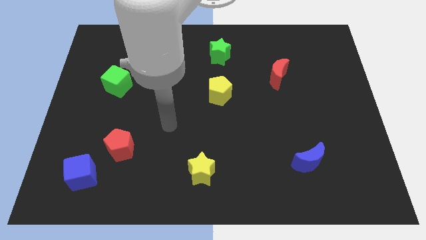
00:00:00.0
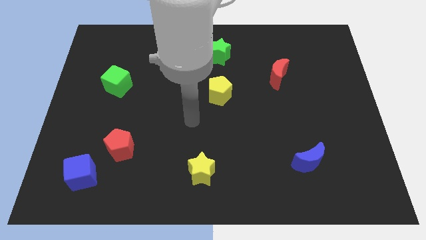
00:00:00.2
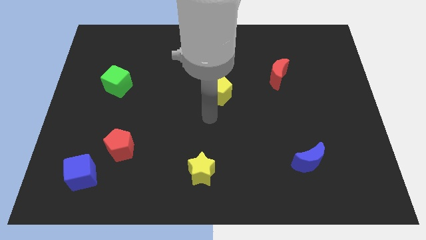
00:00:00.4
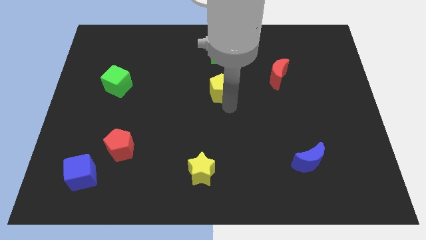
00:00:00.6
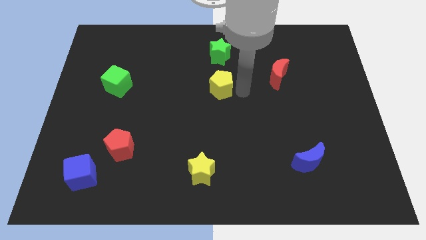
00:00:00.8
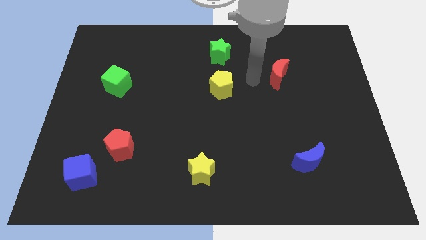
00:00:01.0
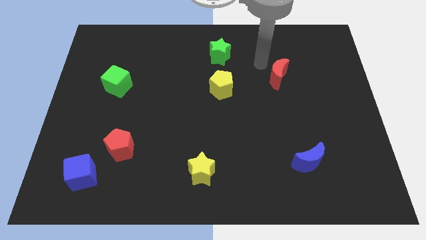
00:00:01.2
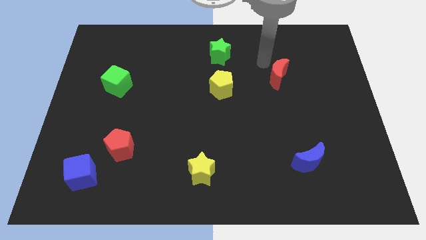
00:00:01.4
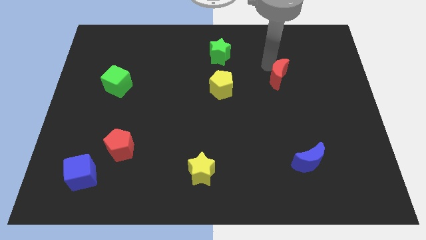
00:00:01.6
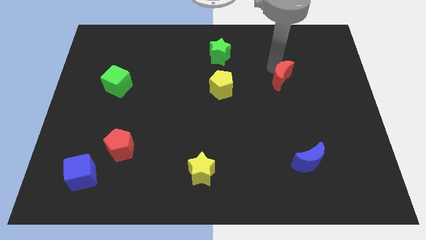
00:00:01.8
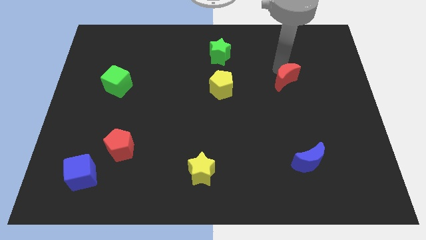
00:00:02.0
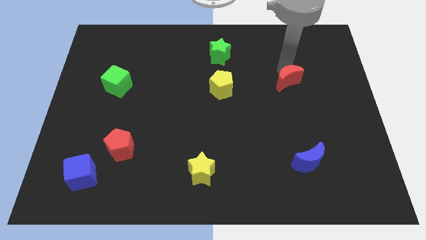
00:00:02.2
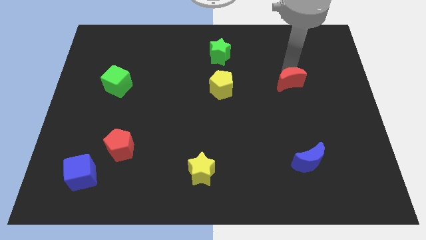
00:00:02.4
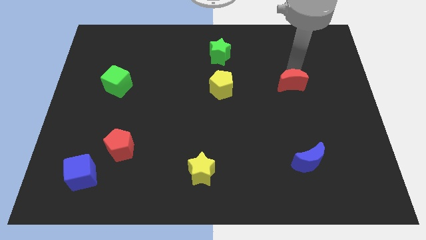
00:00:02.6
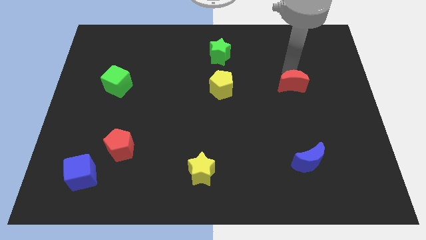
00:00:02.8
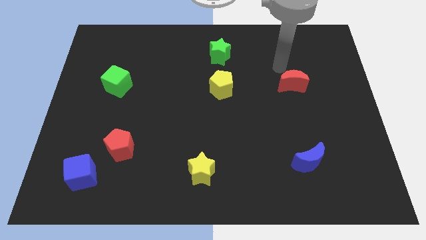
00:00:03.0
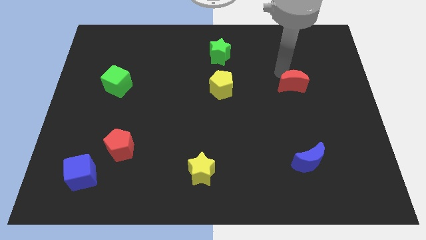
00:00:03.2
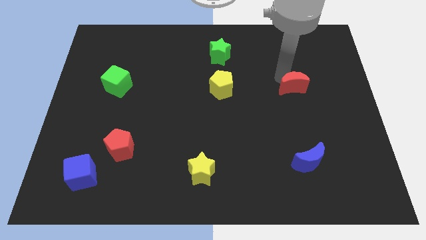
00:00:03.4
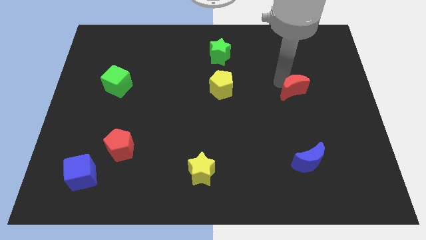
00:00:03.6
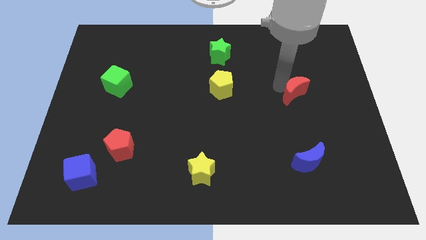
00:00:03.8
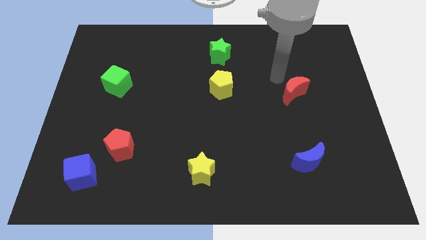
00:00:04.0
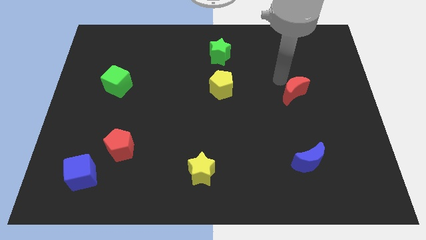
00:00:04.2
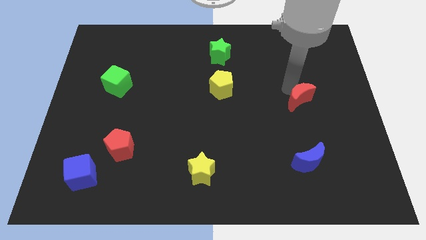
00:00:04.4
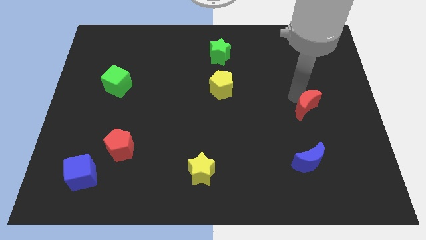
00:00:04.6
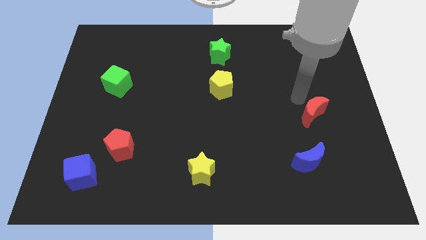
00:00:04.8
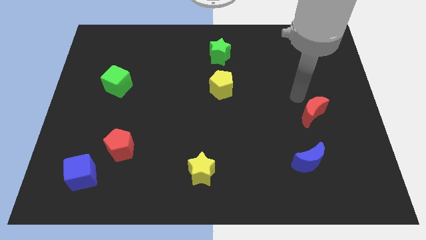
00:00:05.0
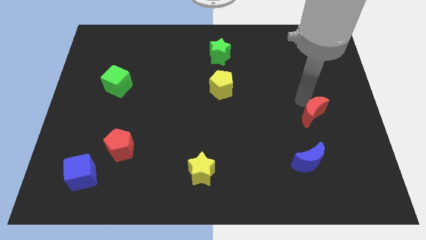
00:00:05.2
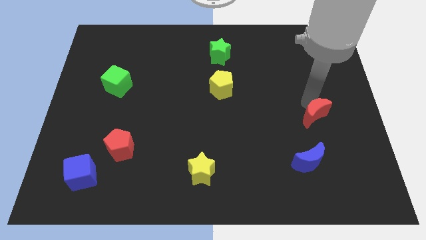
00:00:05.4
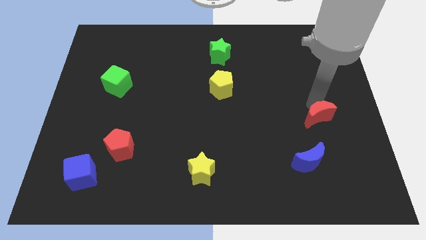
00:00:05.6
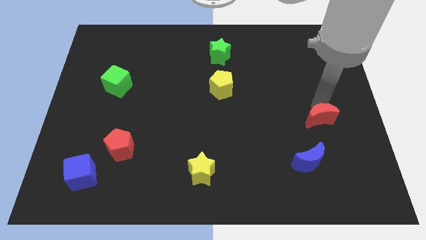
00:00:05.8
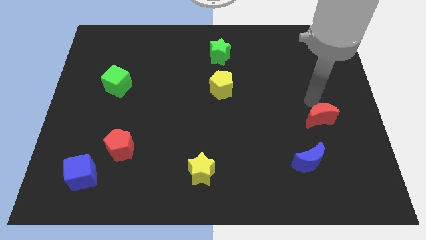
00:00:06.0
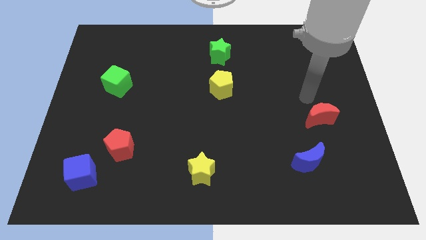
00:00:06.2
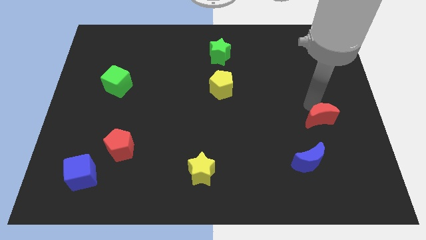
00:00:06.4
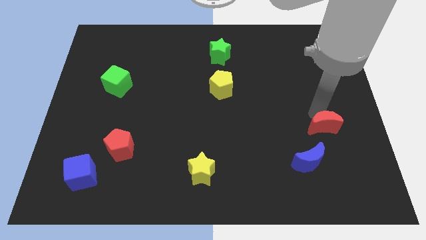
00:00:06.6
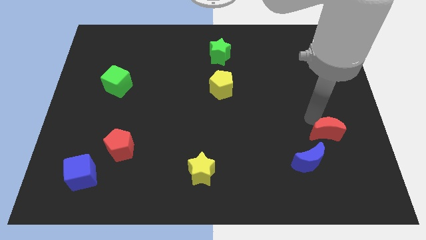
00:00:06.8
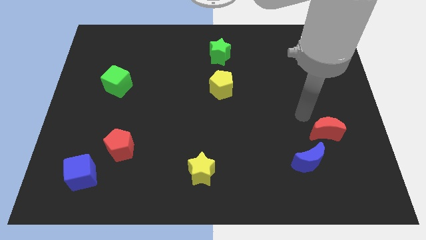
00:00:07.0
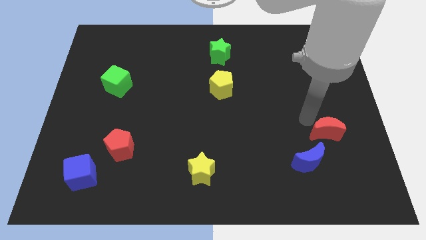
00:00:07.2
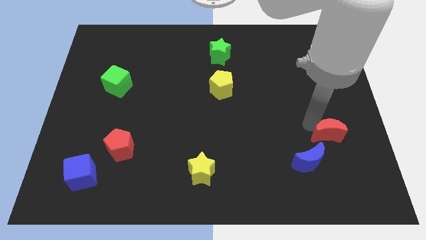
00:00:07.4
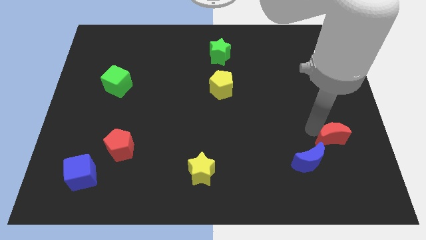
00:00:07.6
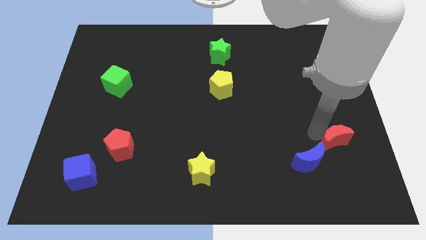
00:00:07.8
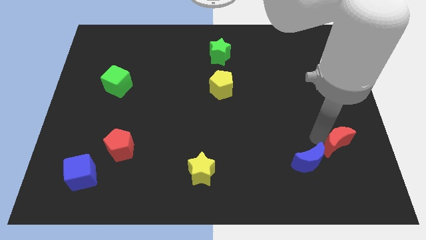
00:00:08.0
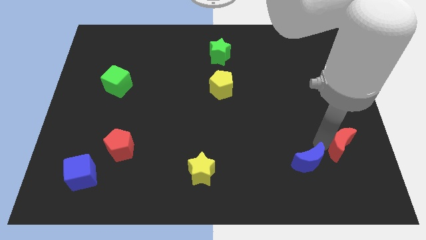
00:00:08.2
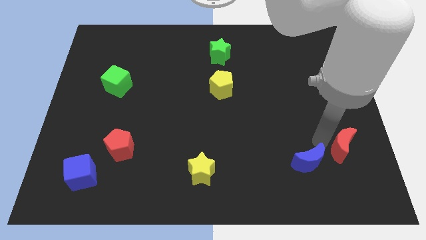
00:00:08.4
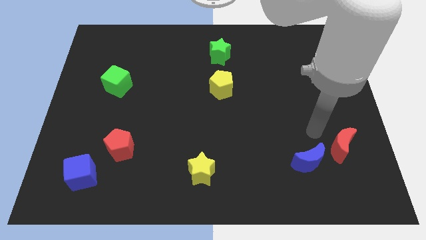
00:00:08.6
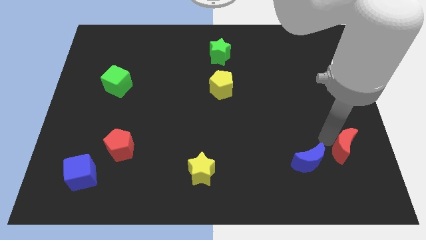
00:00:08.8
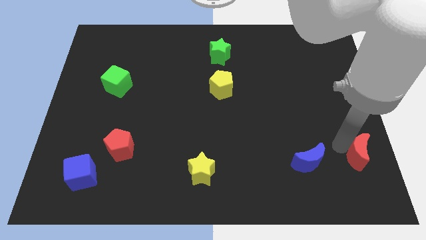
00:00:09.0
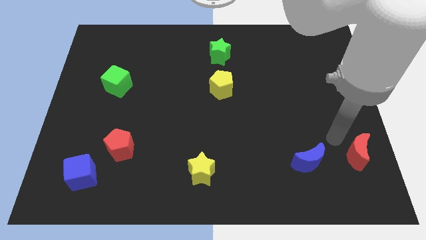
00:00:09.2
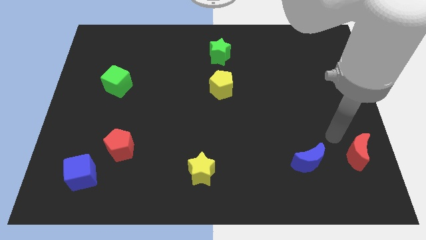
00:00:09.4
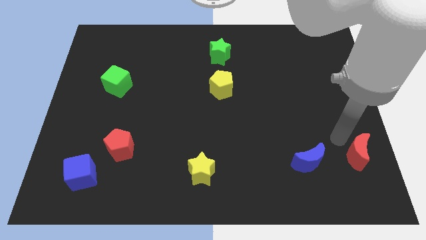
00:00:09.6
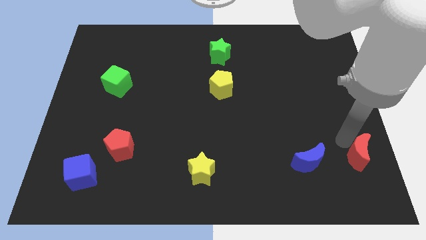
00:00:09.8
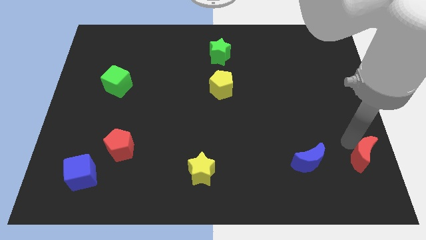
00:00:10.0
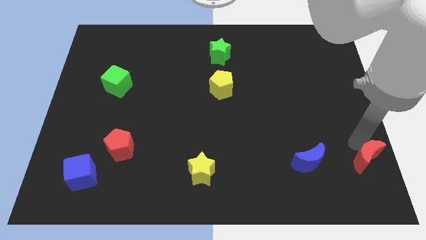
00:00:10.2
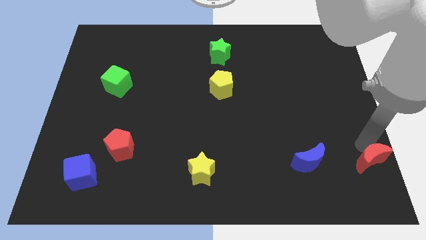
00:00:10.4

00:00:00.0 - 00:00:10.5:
put the red moon to the bottom right corner

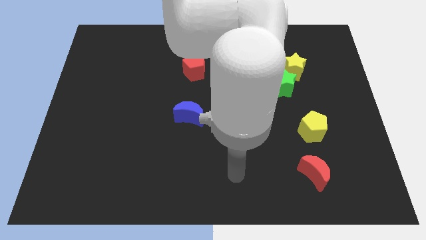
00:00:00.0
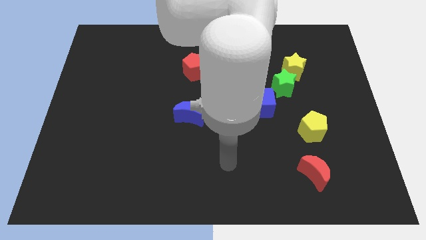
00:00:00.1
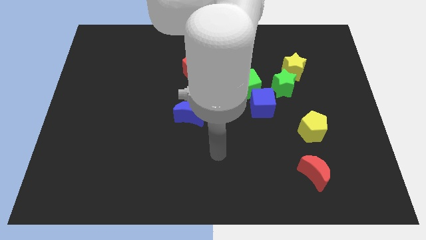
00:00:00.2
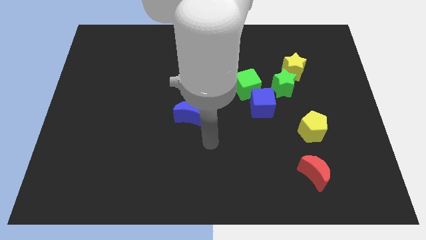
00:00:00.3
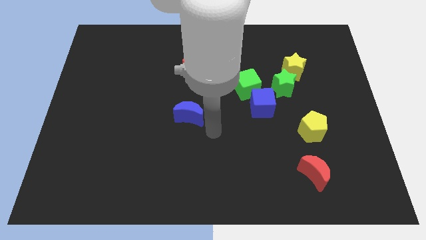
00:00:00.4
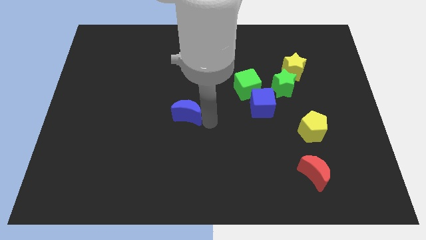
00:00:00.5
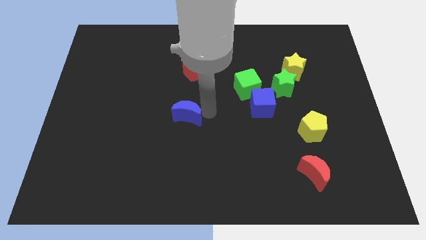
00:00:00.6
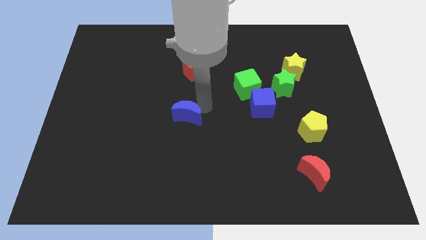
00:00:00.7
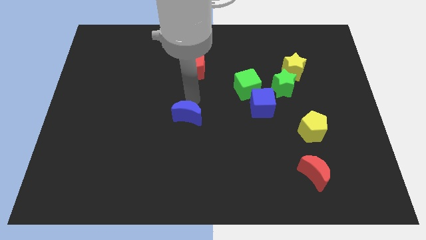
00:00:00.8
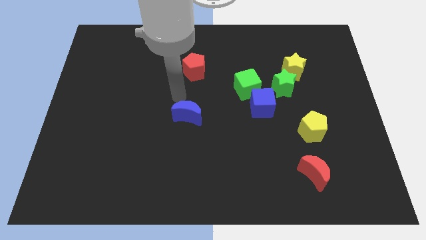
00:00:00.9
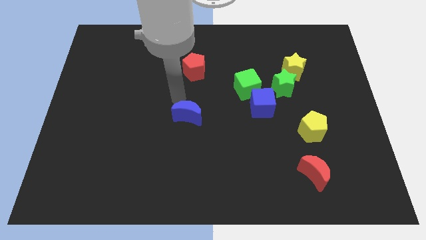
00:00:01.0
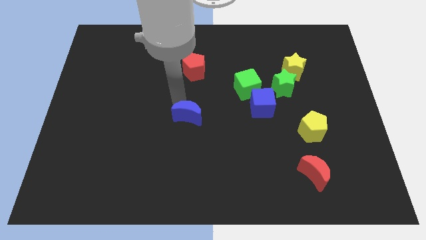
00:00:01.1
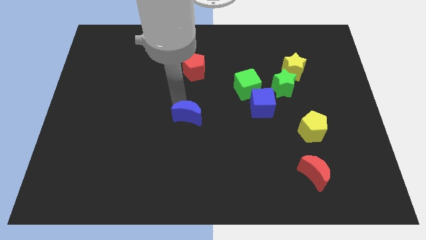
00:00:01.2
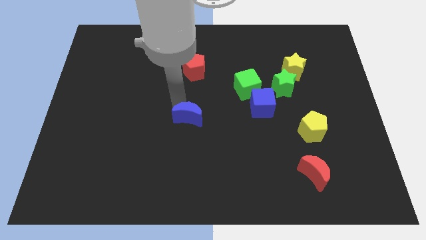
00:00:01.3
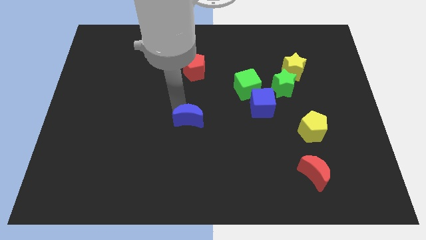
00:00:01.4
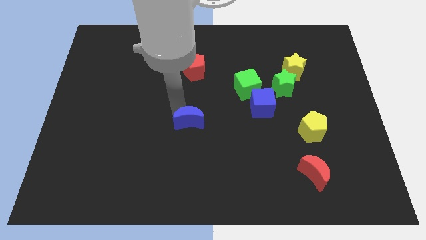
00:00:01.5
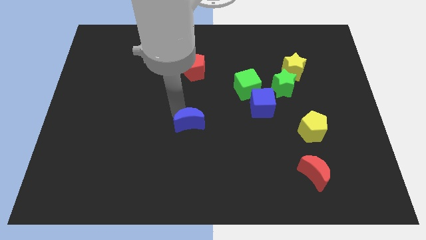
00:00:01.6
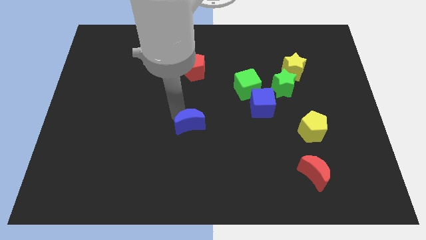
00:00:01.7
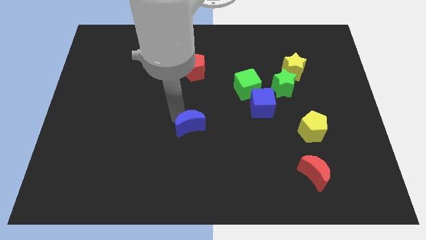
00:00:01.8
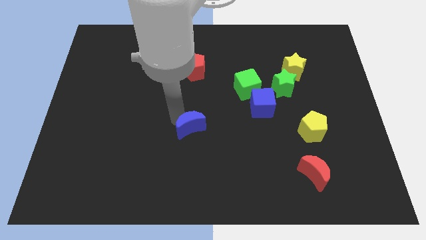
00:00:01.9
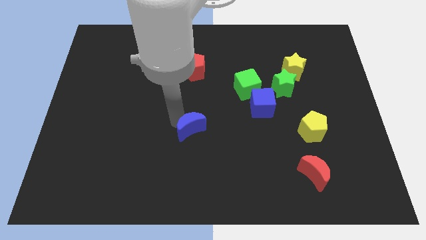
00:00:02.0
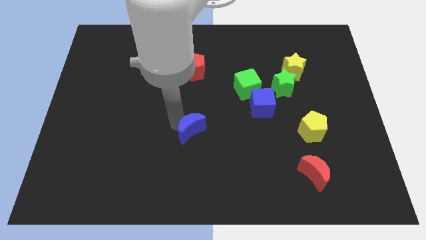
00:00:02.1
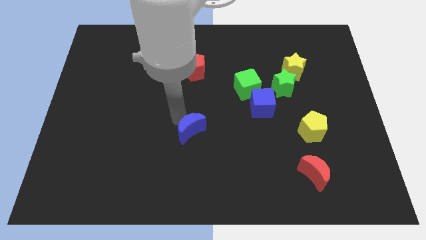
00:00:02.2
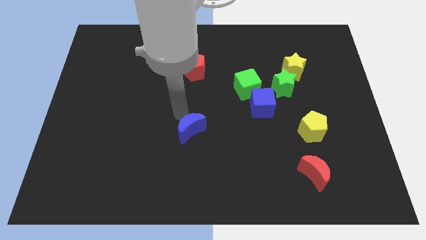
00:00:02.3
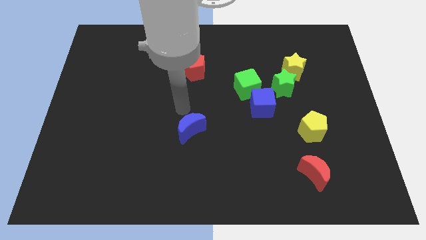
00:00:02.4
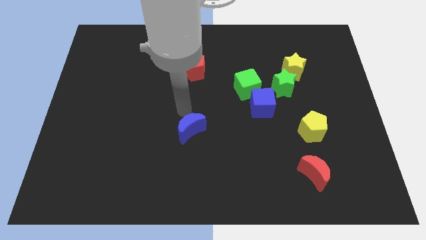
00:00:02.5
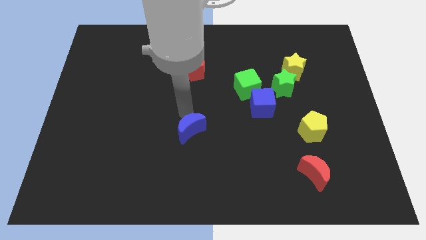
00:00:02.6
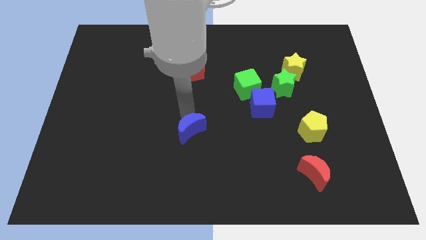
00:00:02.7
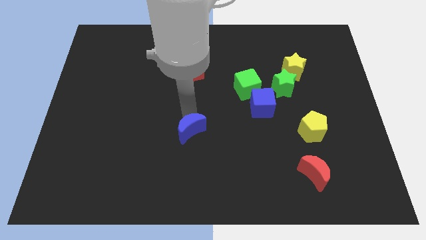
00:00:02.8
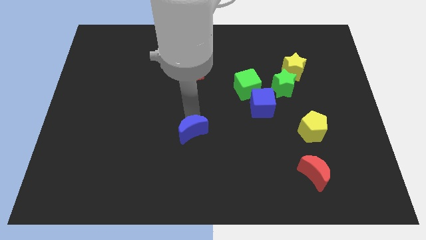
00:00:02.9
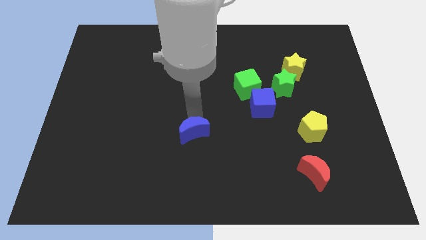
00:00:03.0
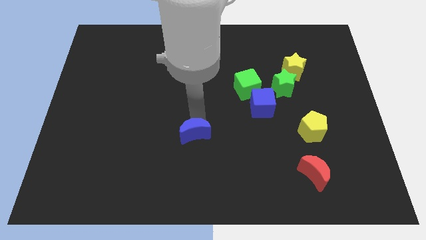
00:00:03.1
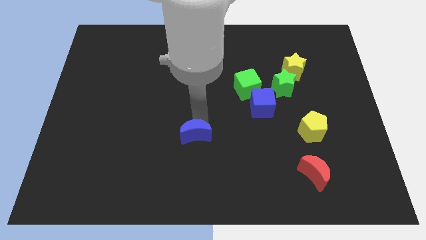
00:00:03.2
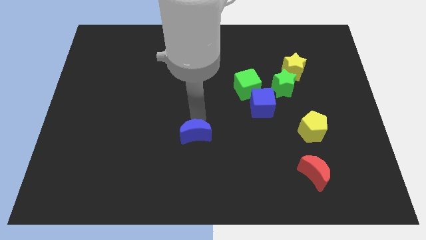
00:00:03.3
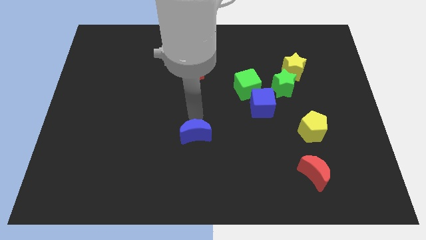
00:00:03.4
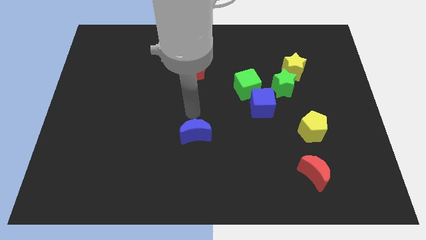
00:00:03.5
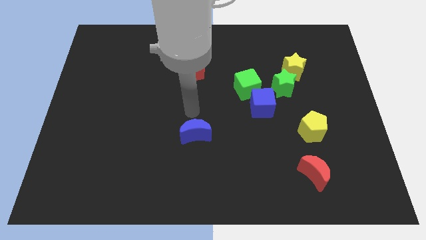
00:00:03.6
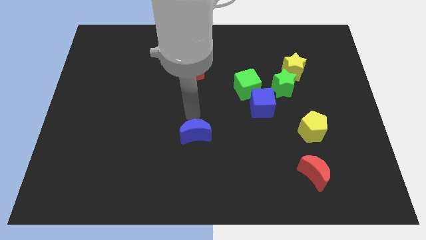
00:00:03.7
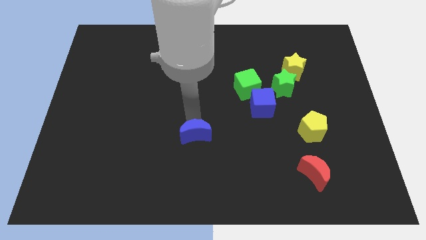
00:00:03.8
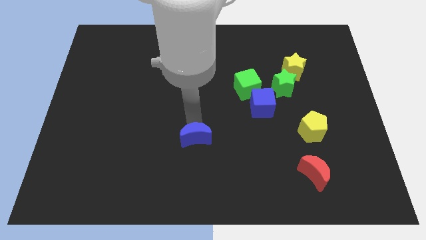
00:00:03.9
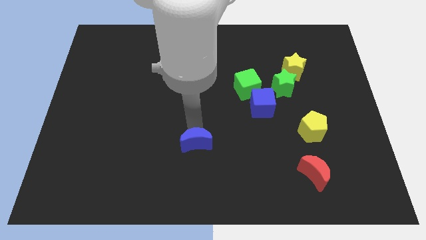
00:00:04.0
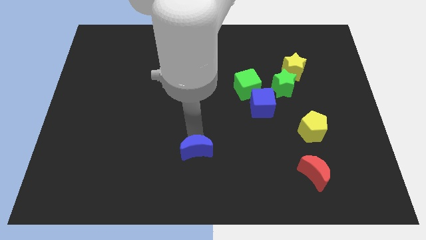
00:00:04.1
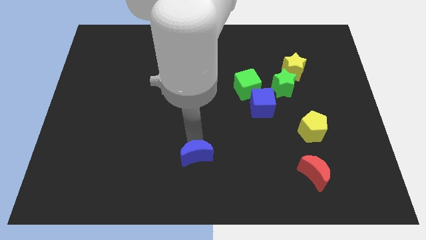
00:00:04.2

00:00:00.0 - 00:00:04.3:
put the blue moon to the bottom
